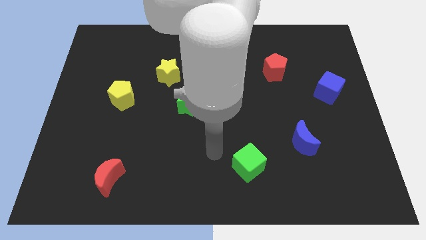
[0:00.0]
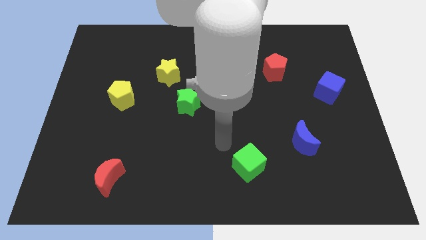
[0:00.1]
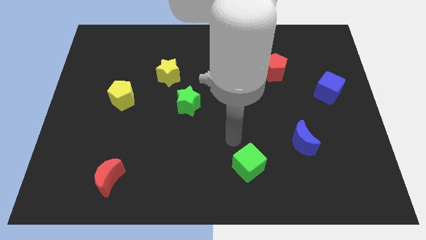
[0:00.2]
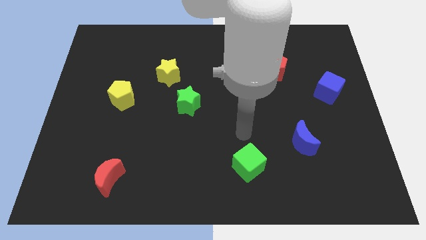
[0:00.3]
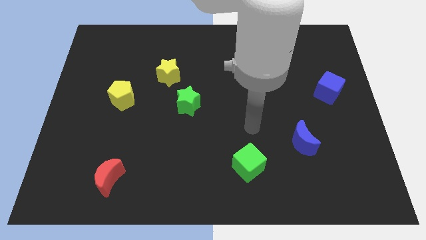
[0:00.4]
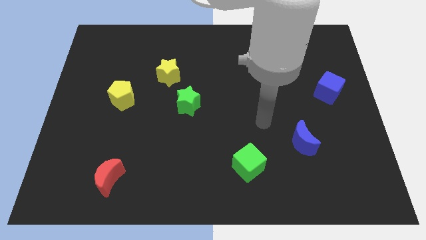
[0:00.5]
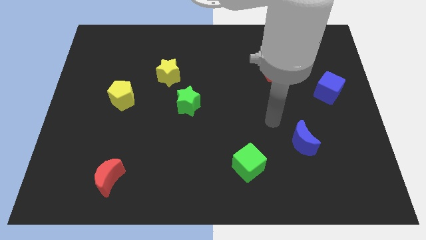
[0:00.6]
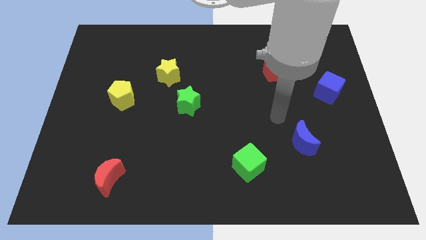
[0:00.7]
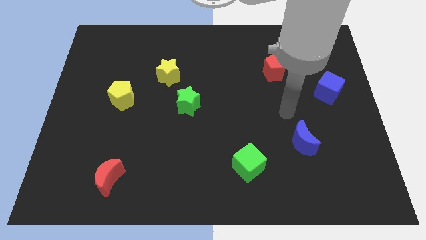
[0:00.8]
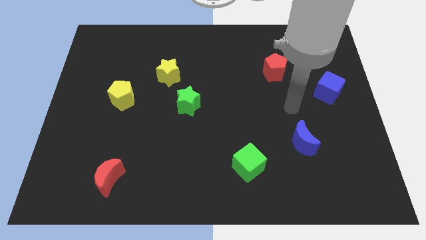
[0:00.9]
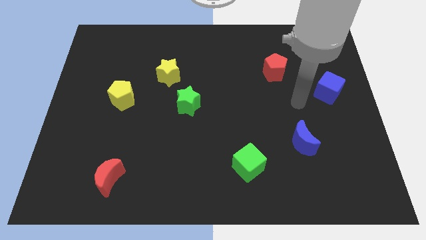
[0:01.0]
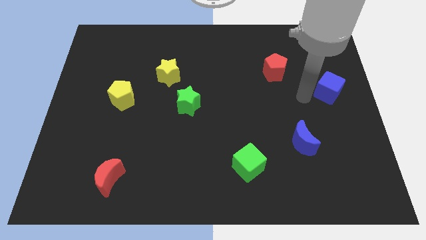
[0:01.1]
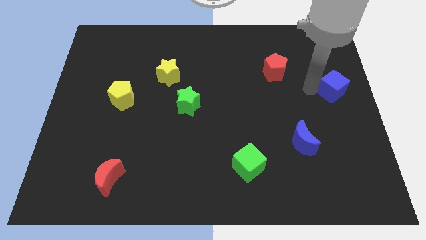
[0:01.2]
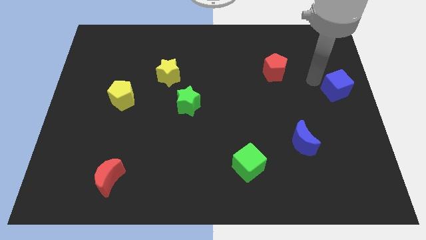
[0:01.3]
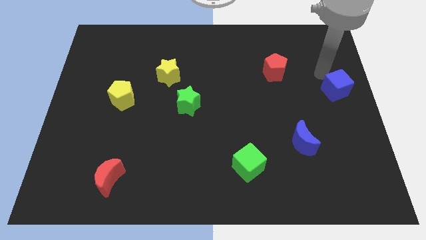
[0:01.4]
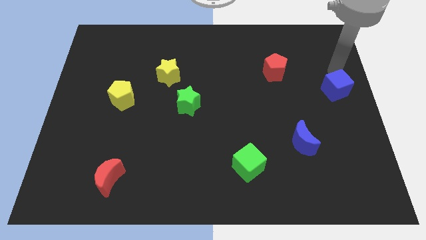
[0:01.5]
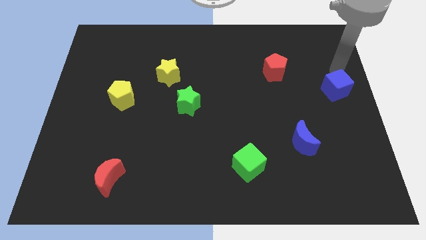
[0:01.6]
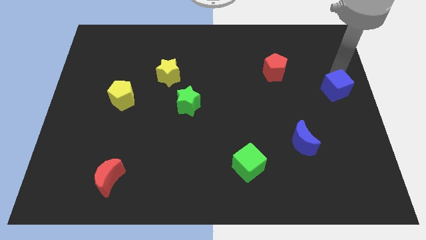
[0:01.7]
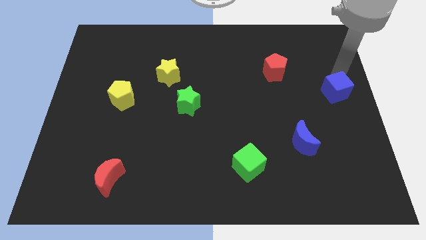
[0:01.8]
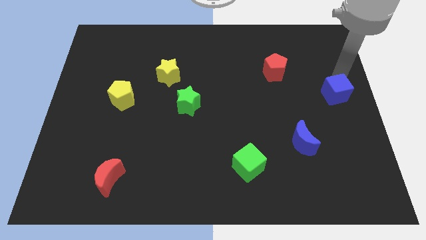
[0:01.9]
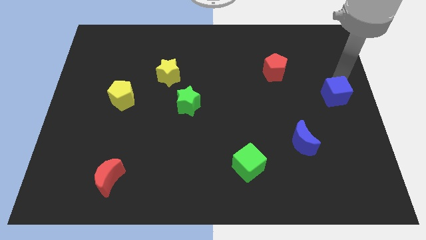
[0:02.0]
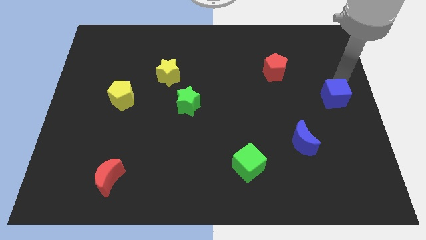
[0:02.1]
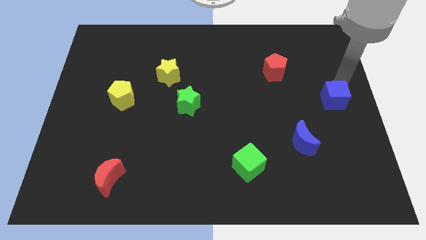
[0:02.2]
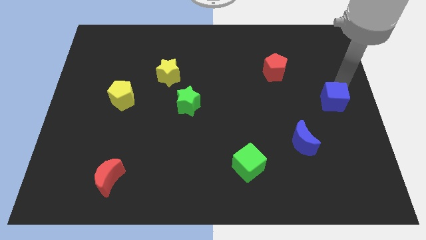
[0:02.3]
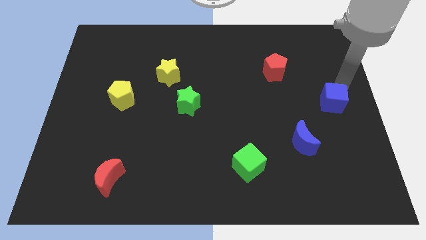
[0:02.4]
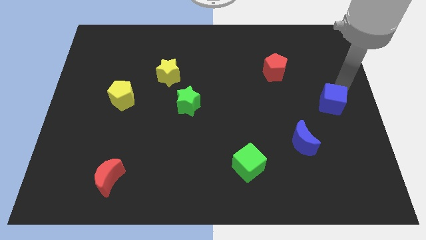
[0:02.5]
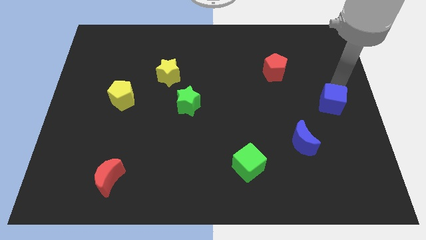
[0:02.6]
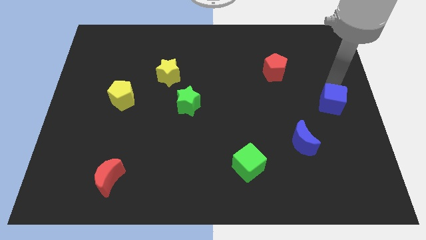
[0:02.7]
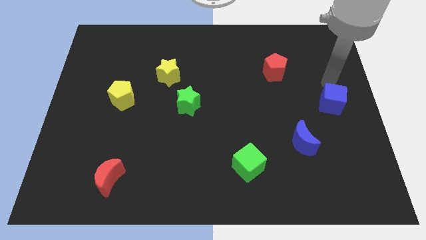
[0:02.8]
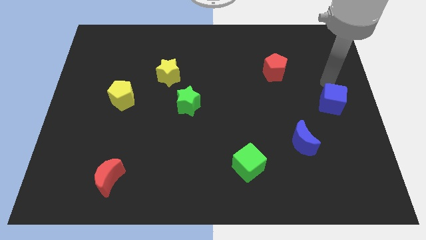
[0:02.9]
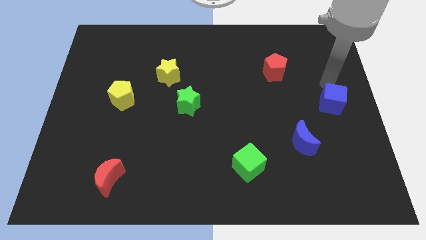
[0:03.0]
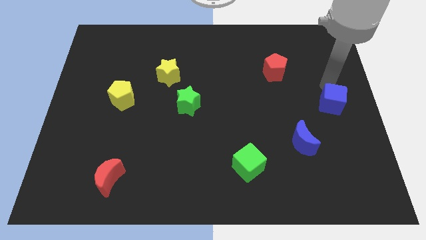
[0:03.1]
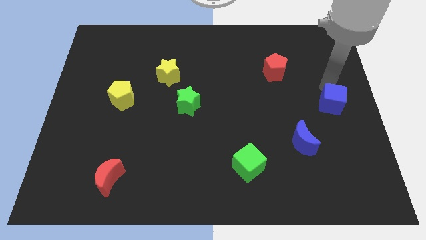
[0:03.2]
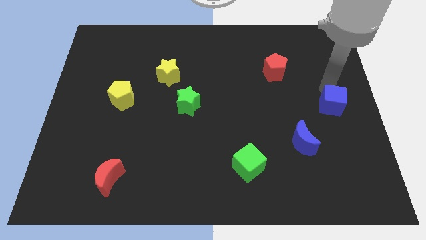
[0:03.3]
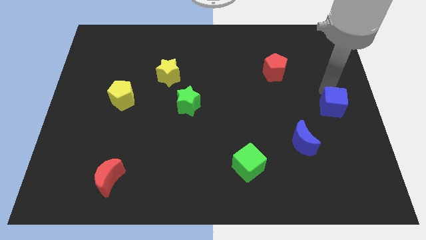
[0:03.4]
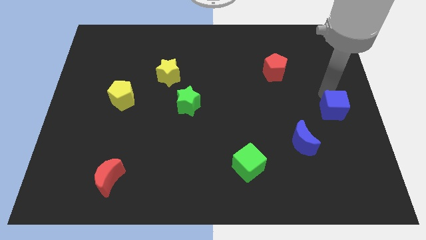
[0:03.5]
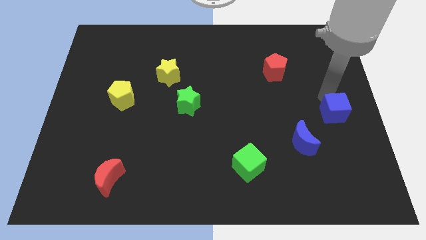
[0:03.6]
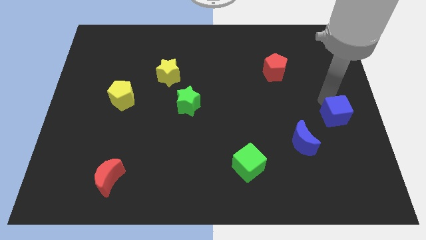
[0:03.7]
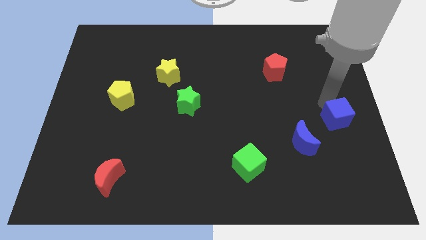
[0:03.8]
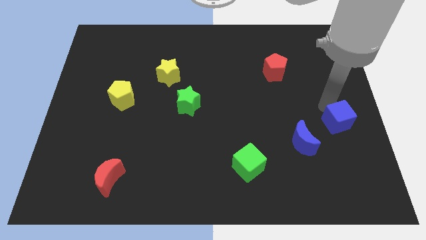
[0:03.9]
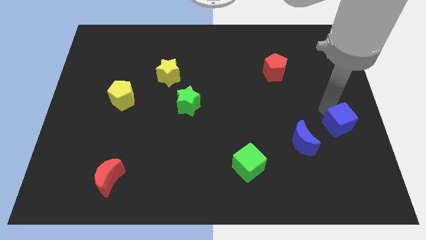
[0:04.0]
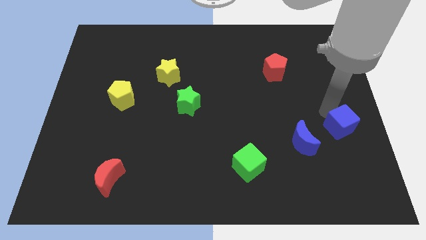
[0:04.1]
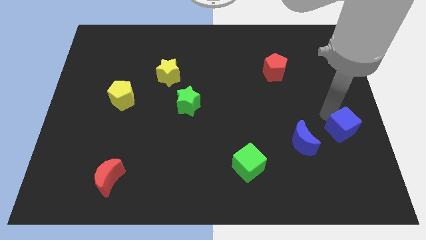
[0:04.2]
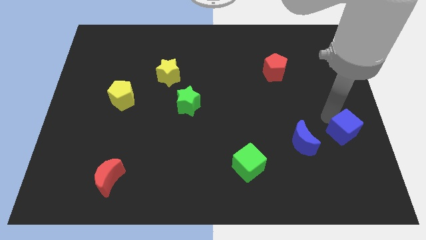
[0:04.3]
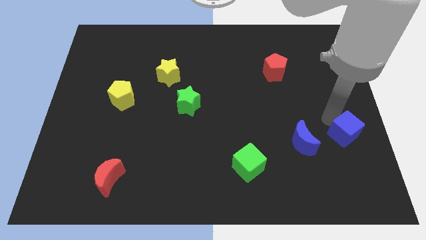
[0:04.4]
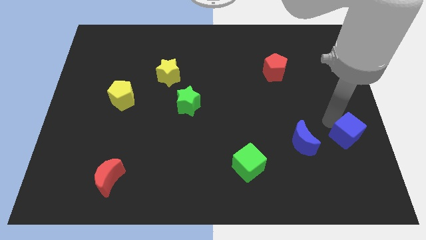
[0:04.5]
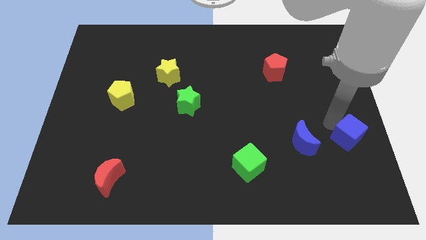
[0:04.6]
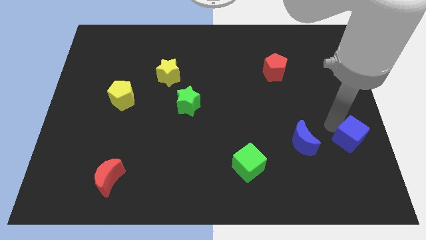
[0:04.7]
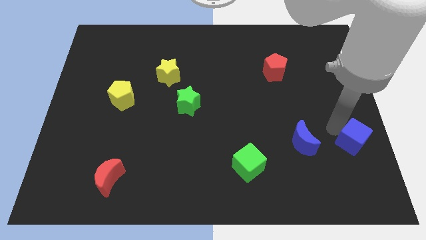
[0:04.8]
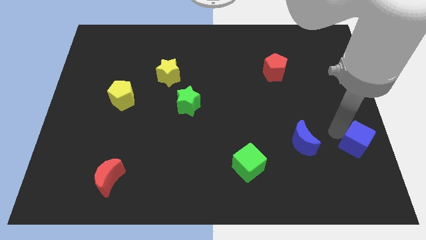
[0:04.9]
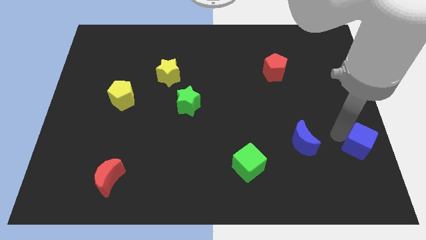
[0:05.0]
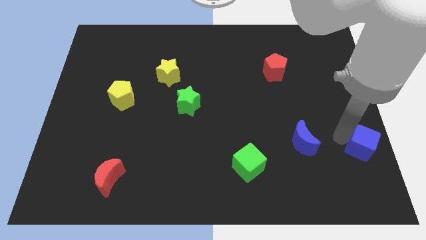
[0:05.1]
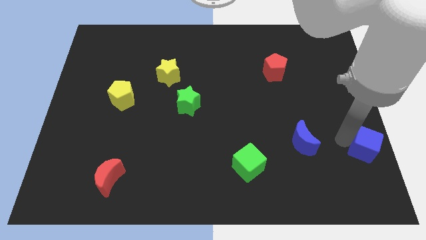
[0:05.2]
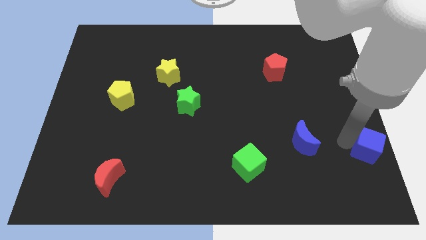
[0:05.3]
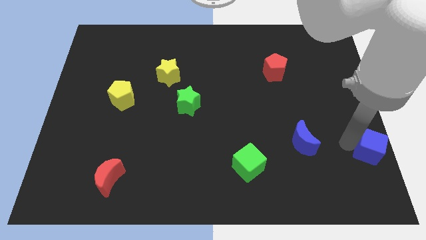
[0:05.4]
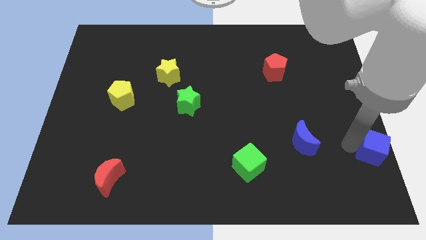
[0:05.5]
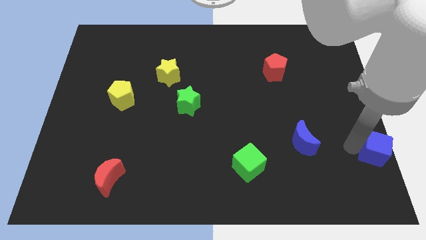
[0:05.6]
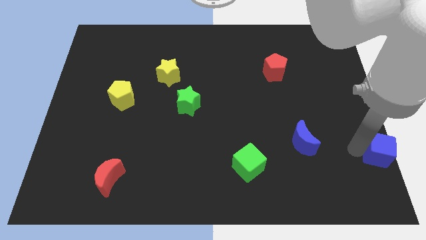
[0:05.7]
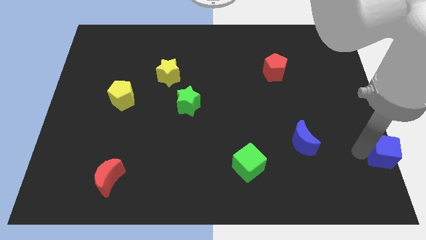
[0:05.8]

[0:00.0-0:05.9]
push the blue cube to the bottom right of the board
